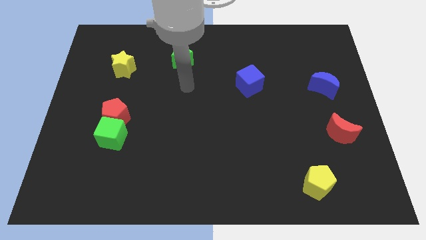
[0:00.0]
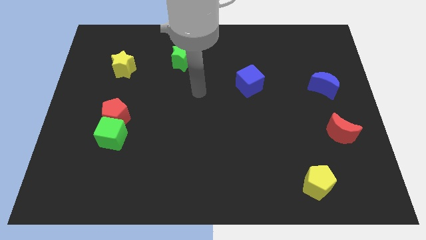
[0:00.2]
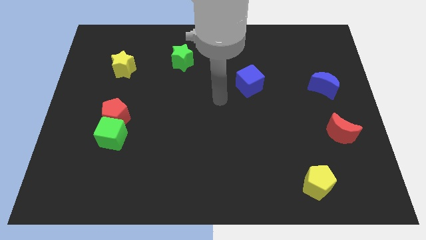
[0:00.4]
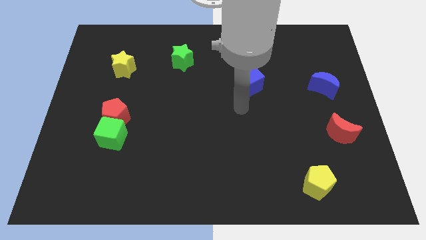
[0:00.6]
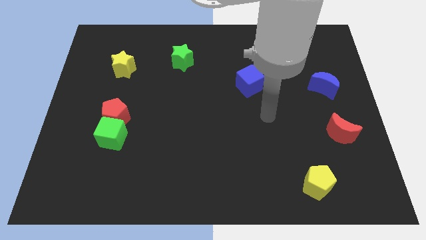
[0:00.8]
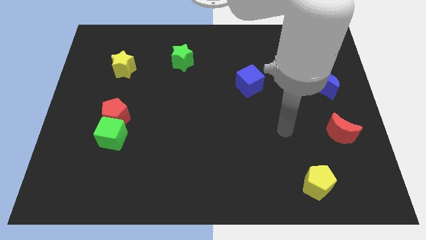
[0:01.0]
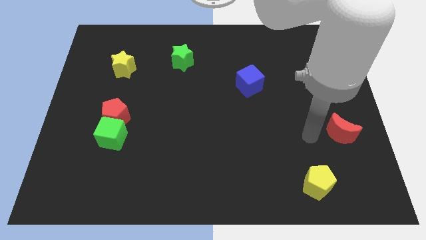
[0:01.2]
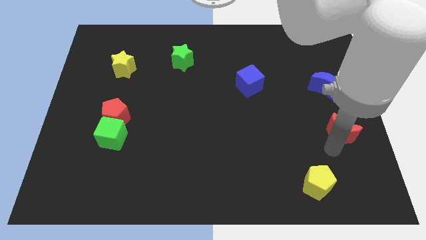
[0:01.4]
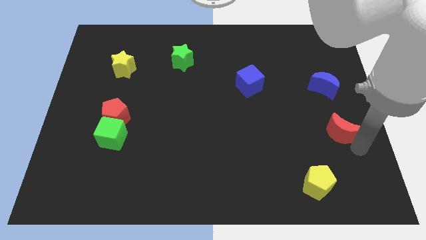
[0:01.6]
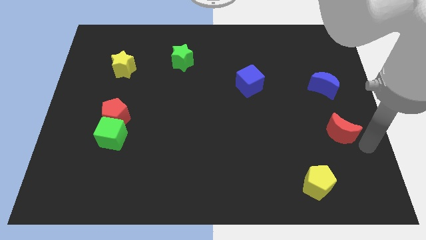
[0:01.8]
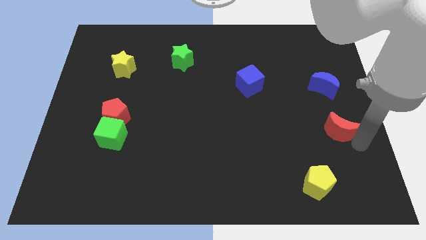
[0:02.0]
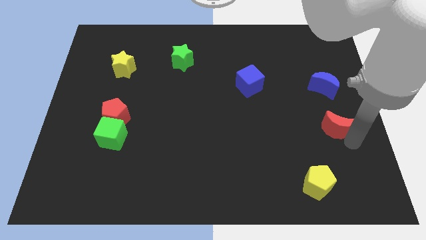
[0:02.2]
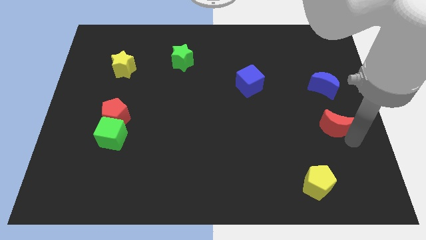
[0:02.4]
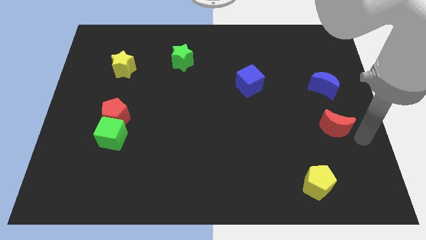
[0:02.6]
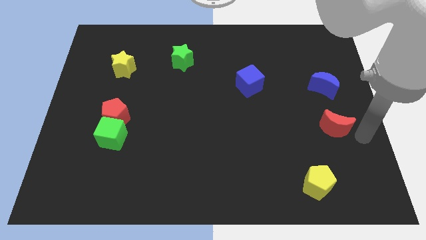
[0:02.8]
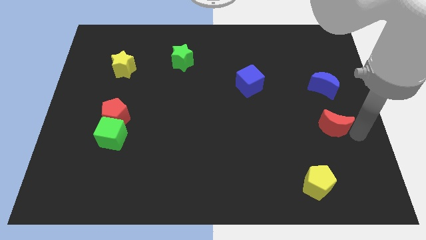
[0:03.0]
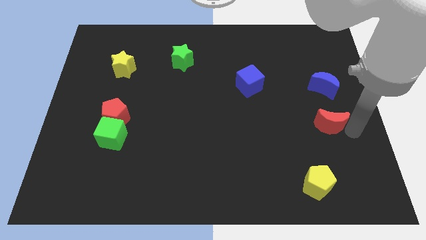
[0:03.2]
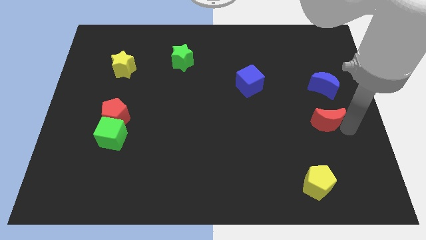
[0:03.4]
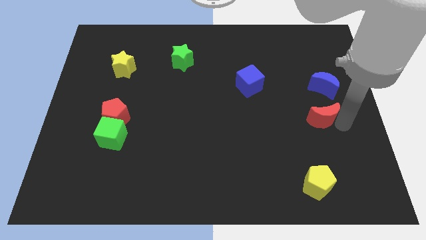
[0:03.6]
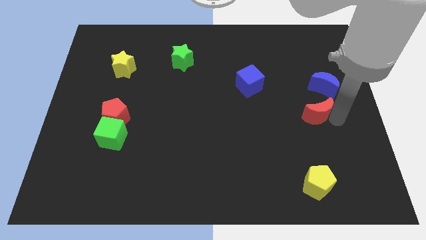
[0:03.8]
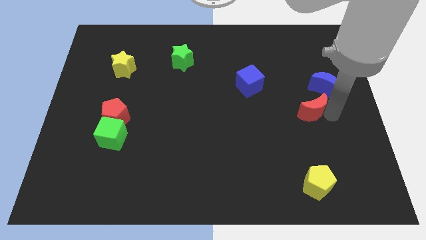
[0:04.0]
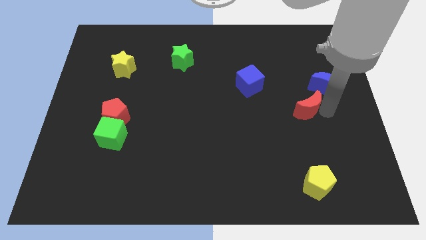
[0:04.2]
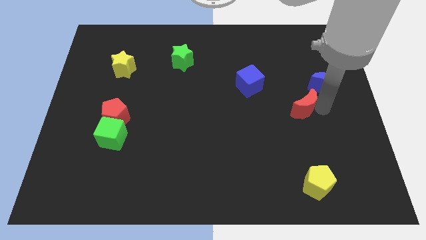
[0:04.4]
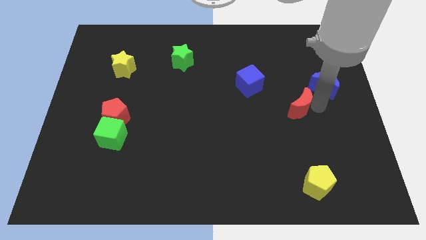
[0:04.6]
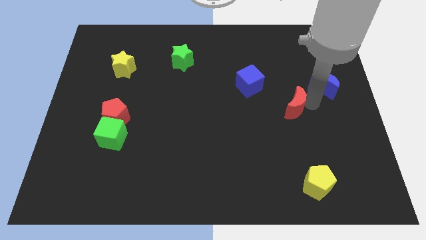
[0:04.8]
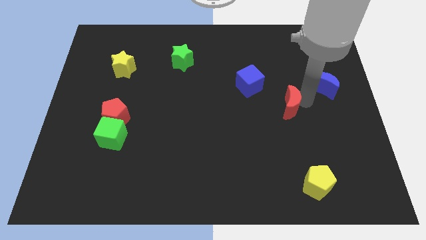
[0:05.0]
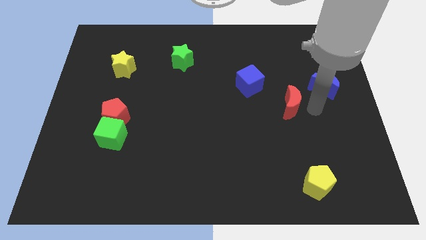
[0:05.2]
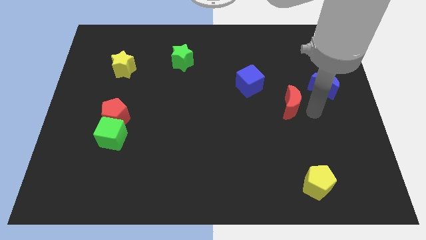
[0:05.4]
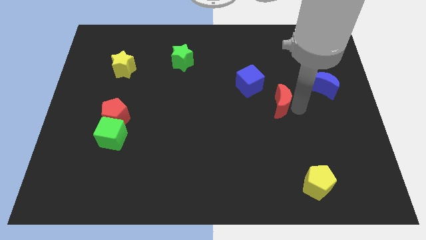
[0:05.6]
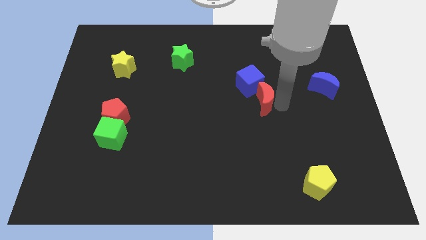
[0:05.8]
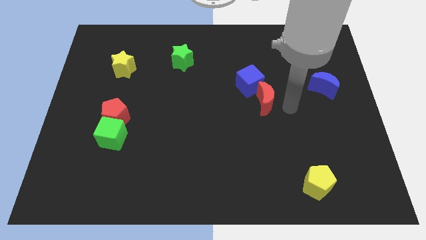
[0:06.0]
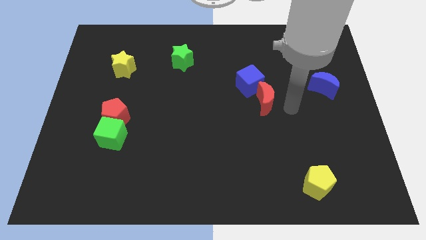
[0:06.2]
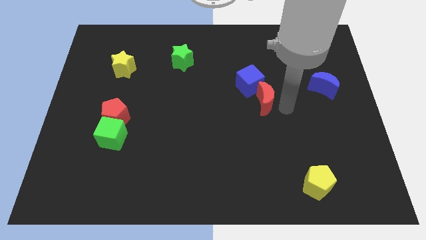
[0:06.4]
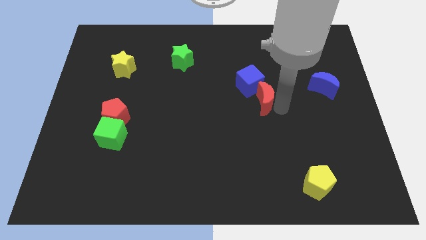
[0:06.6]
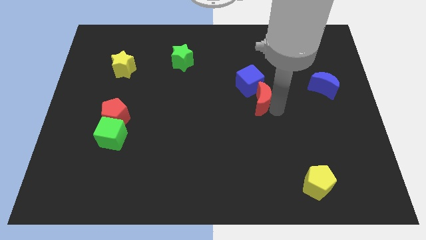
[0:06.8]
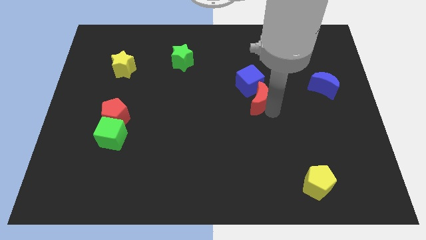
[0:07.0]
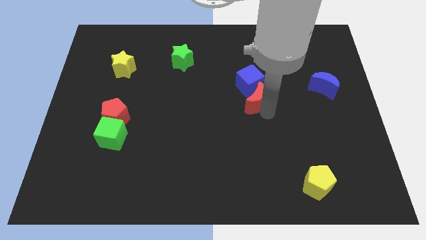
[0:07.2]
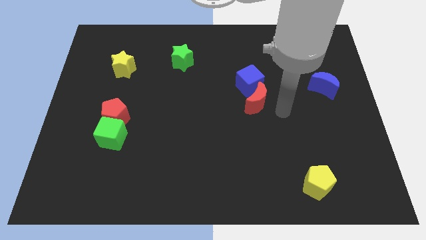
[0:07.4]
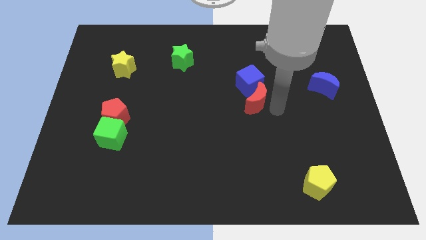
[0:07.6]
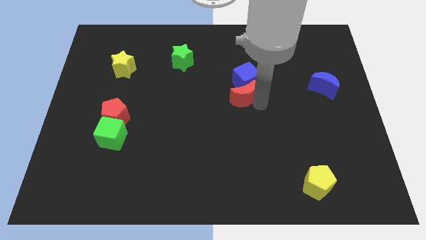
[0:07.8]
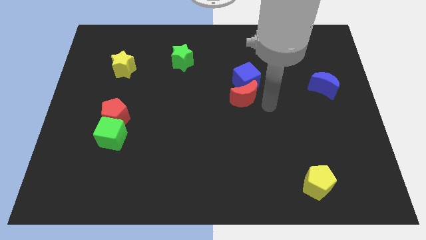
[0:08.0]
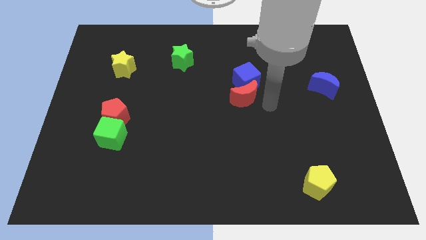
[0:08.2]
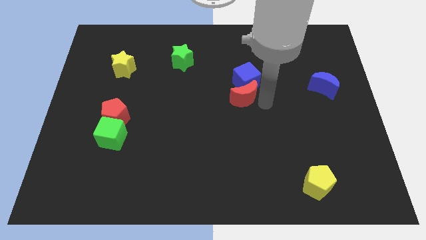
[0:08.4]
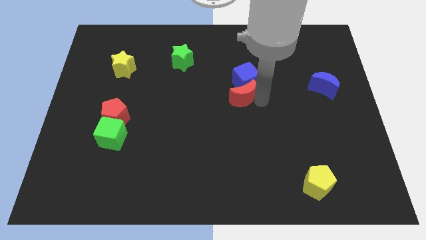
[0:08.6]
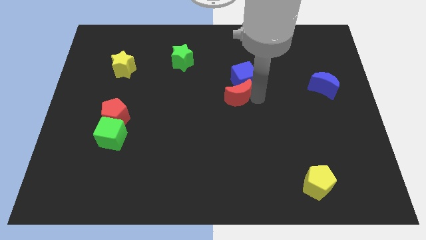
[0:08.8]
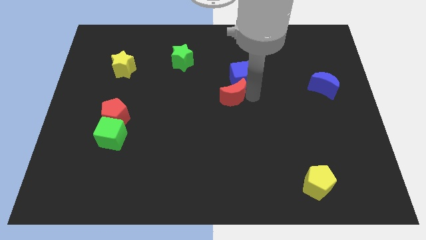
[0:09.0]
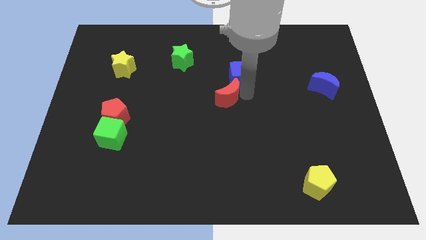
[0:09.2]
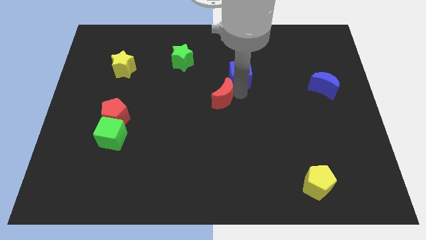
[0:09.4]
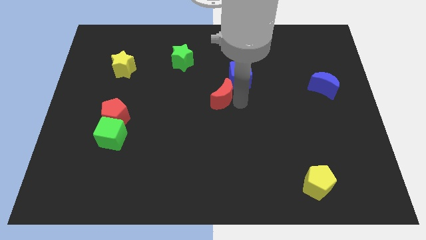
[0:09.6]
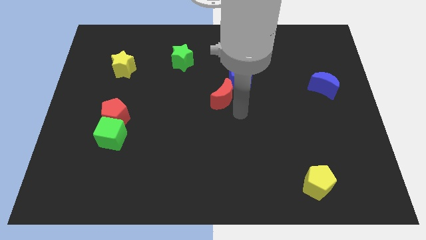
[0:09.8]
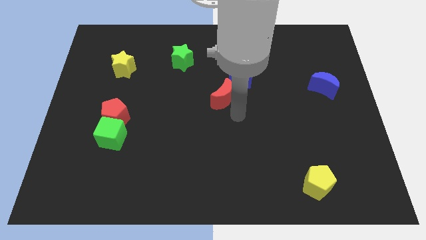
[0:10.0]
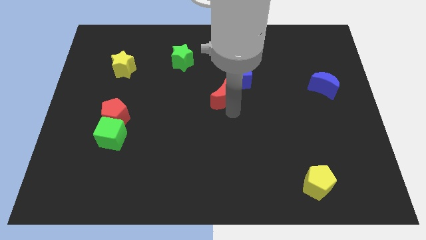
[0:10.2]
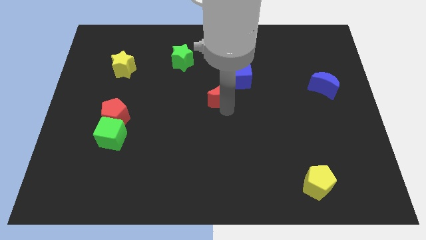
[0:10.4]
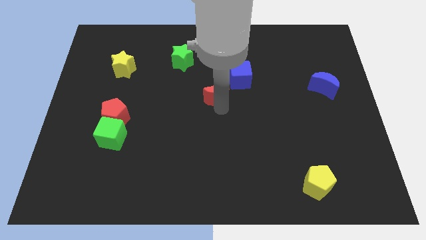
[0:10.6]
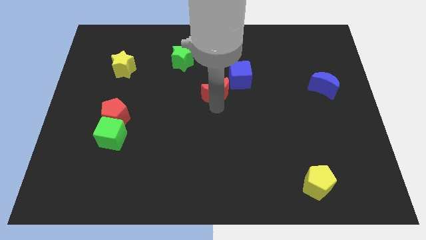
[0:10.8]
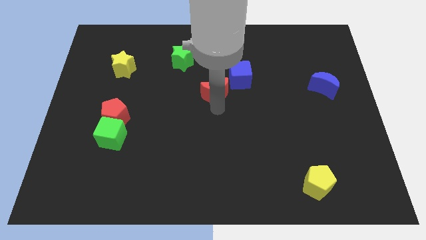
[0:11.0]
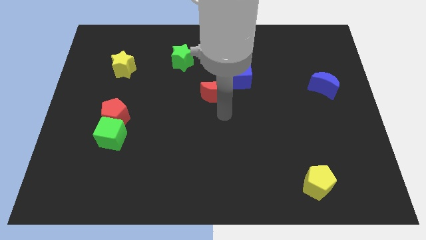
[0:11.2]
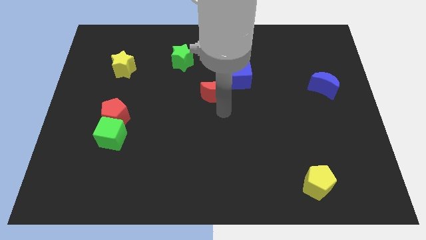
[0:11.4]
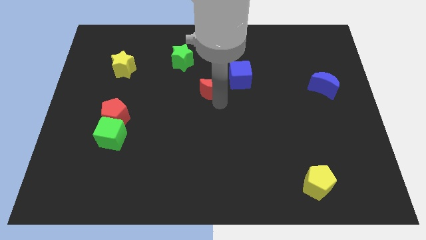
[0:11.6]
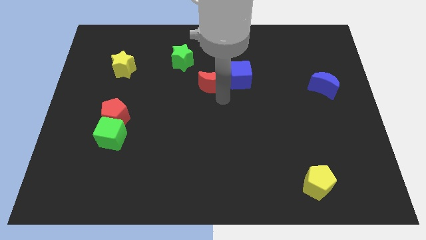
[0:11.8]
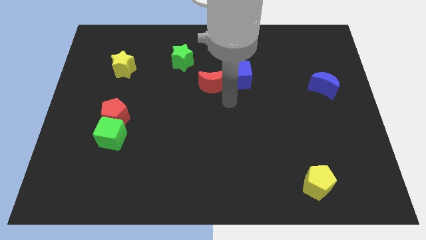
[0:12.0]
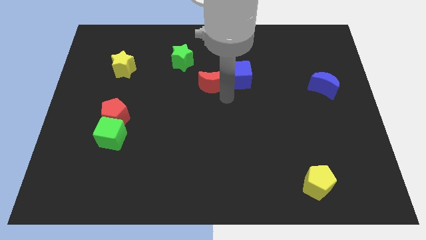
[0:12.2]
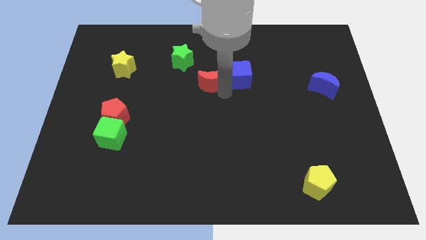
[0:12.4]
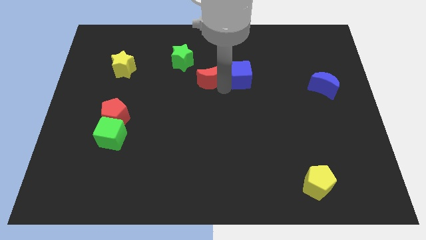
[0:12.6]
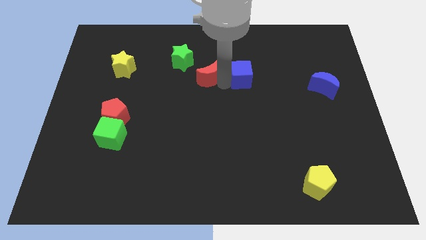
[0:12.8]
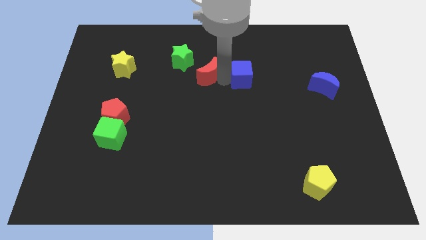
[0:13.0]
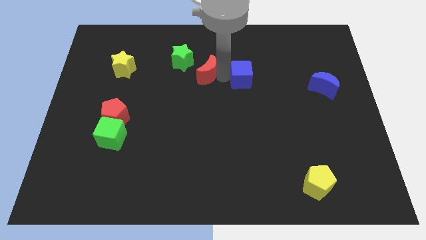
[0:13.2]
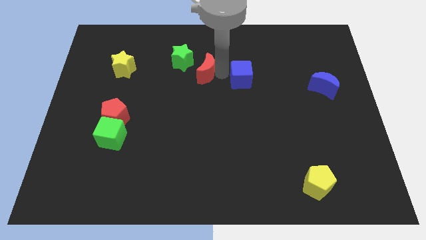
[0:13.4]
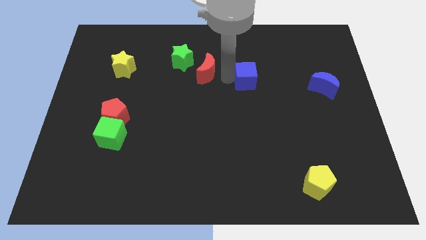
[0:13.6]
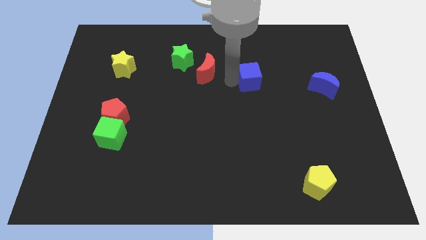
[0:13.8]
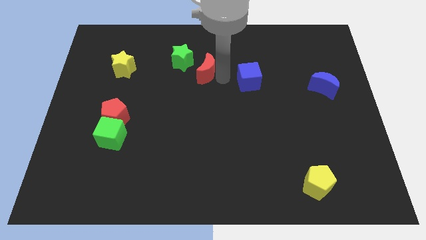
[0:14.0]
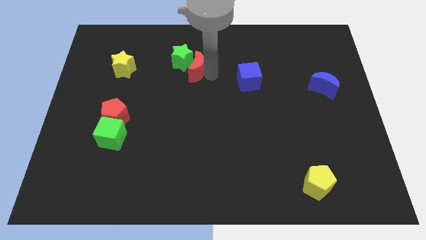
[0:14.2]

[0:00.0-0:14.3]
put the red moon towards the green star

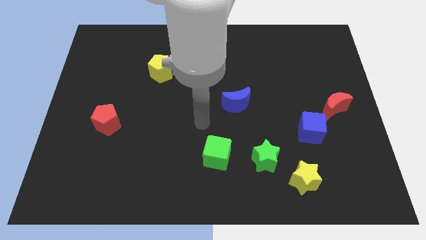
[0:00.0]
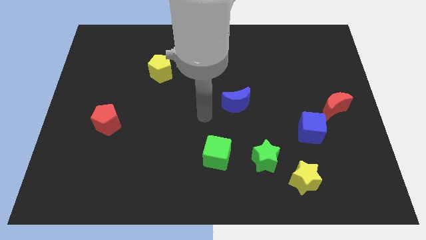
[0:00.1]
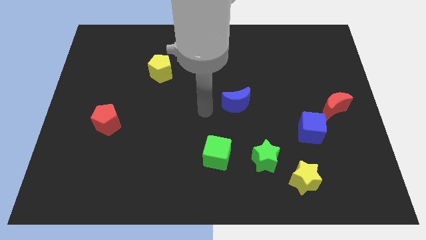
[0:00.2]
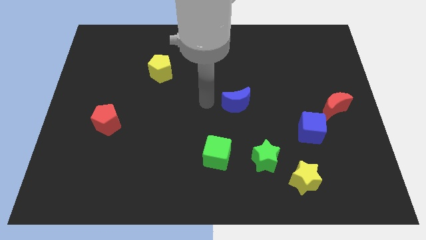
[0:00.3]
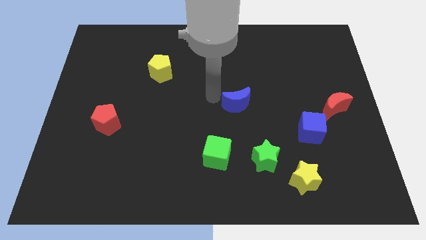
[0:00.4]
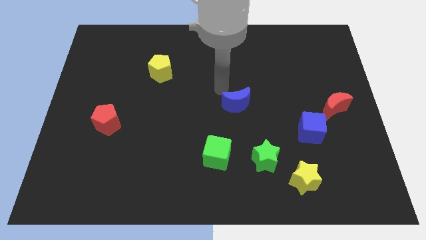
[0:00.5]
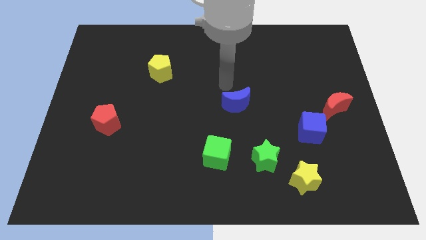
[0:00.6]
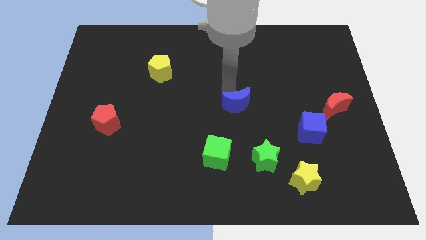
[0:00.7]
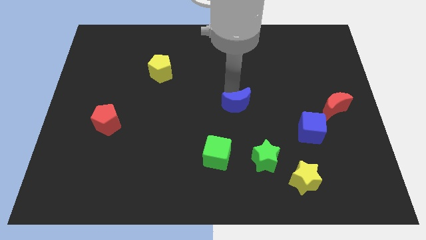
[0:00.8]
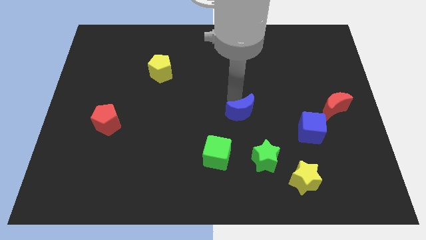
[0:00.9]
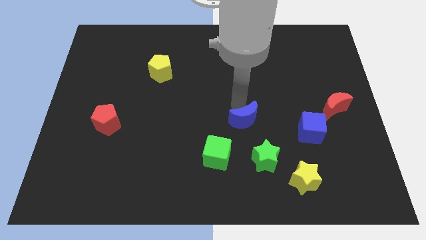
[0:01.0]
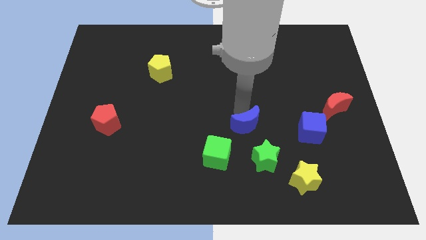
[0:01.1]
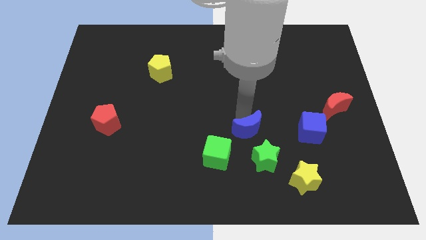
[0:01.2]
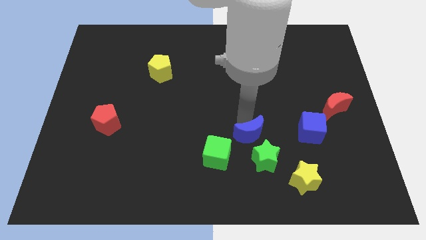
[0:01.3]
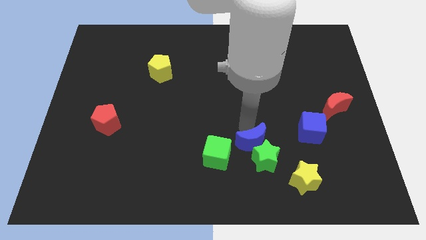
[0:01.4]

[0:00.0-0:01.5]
move the blue moon next to the green star
